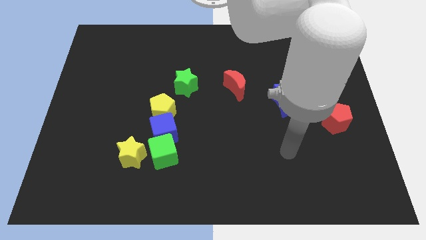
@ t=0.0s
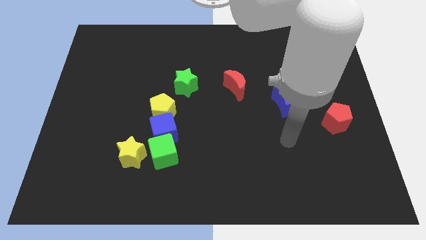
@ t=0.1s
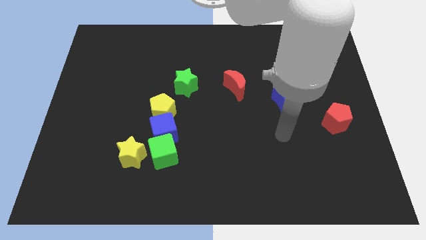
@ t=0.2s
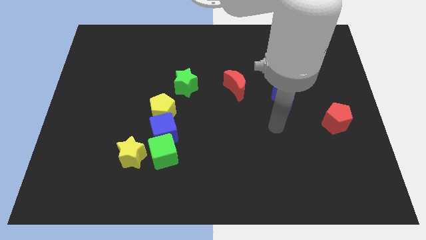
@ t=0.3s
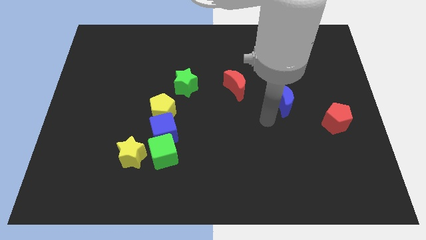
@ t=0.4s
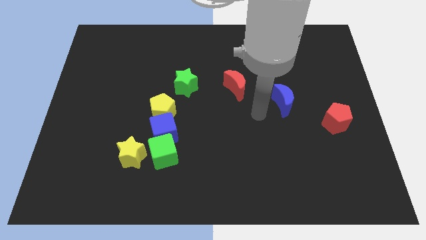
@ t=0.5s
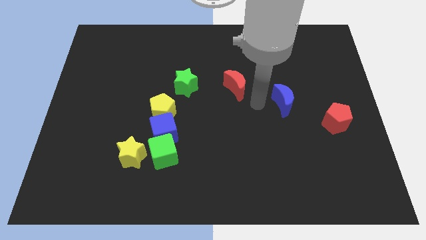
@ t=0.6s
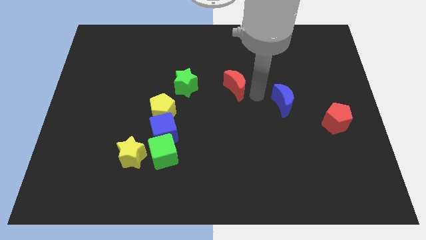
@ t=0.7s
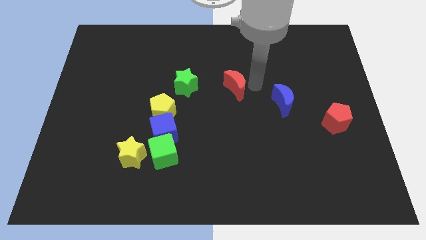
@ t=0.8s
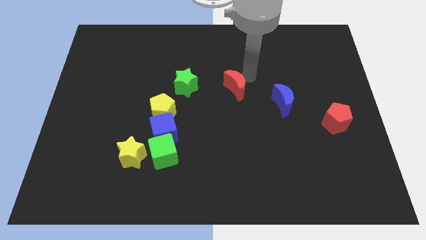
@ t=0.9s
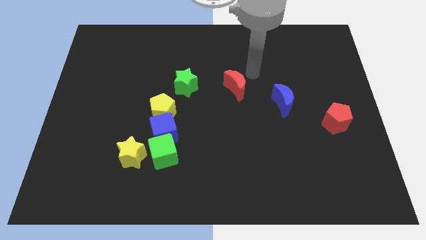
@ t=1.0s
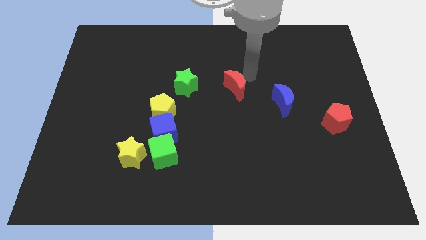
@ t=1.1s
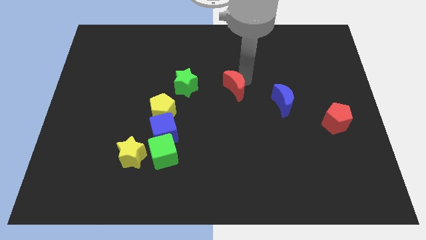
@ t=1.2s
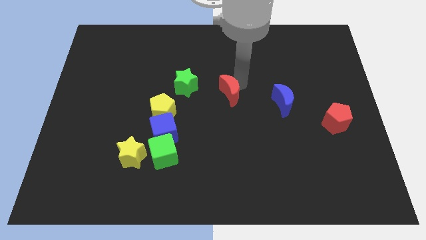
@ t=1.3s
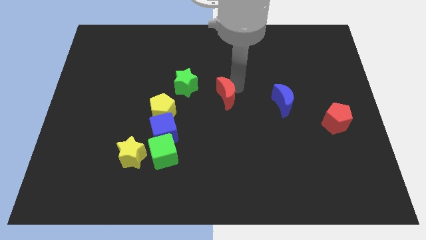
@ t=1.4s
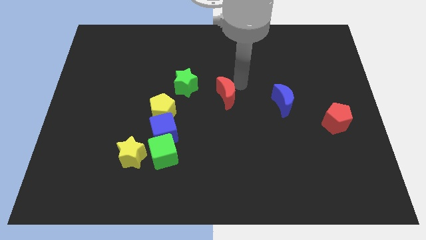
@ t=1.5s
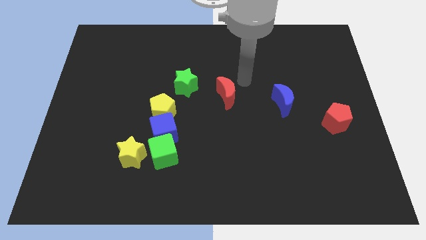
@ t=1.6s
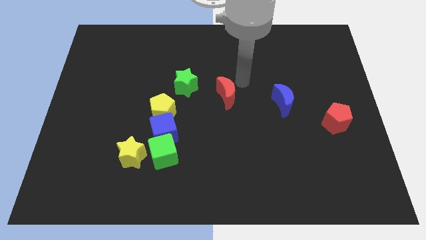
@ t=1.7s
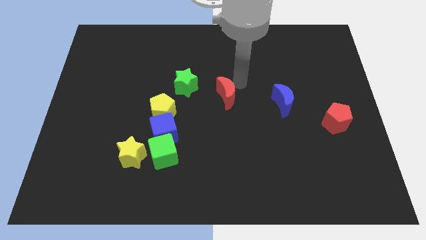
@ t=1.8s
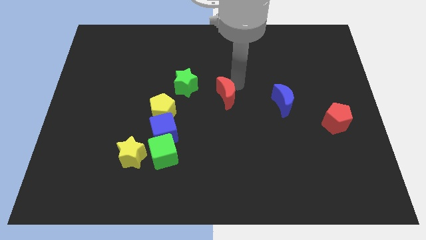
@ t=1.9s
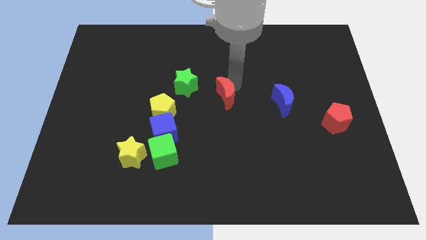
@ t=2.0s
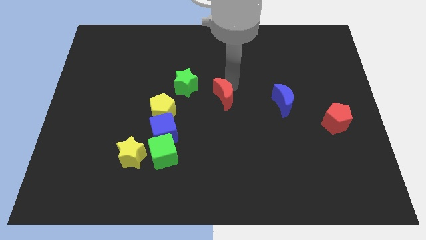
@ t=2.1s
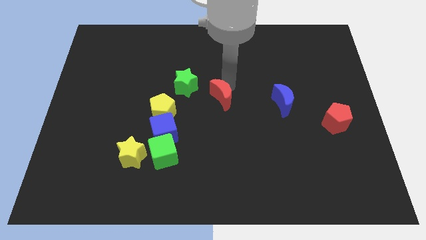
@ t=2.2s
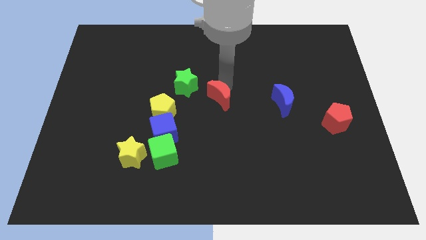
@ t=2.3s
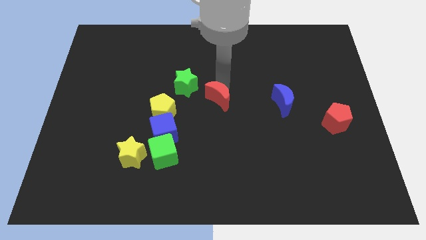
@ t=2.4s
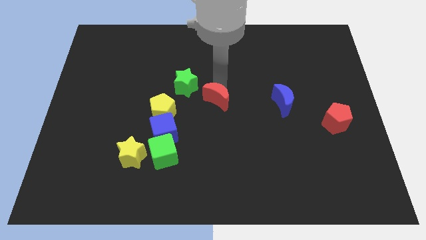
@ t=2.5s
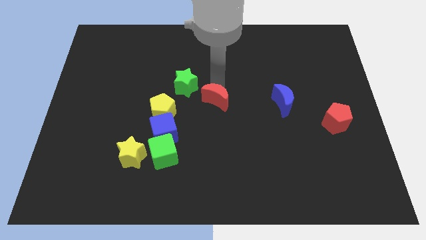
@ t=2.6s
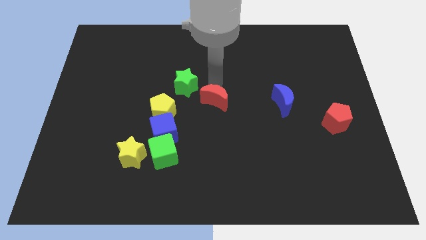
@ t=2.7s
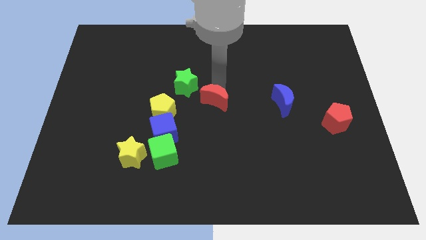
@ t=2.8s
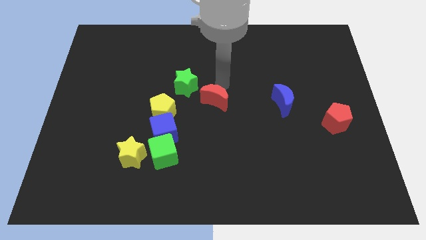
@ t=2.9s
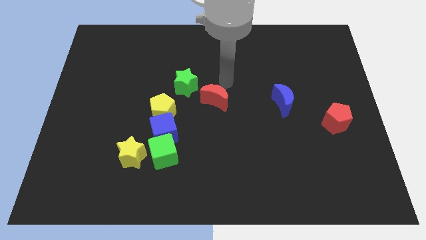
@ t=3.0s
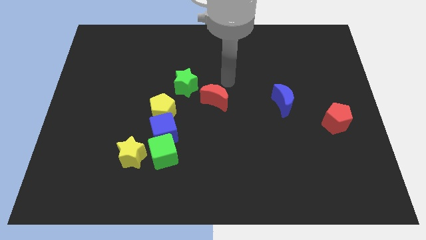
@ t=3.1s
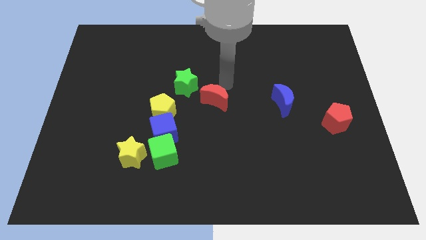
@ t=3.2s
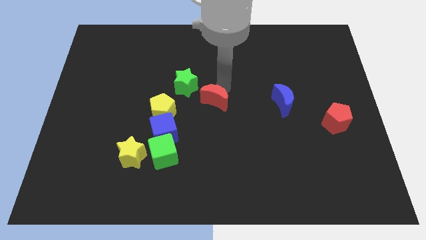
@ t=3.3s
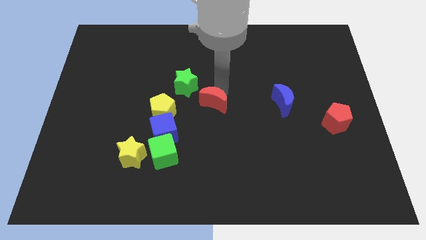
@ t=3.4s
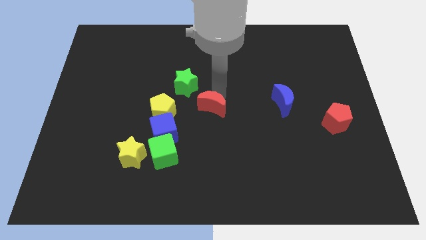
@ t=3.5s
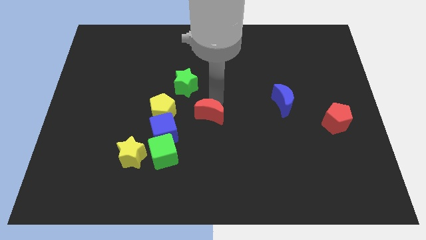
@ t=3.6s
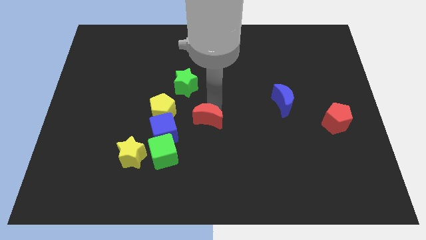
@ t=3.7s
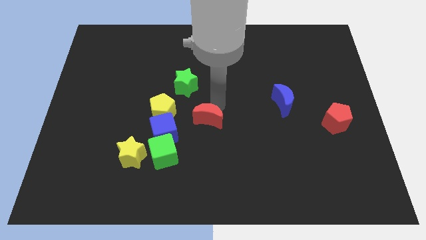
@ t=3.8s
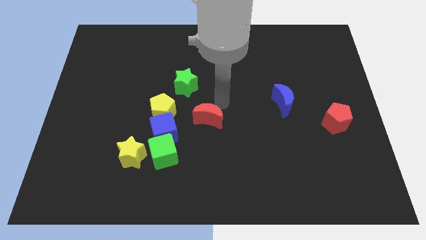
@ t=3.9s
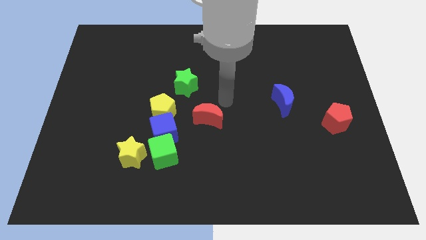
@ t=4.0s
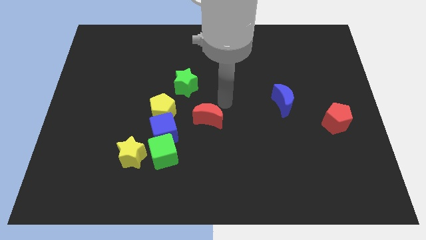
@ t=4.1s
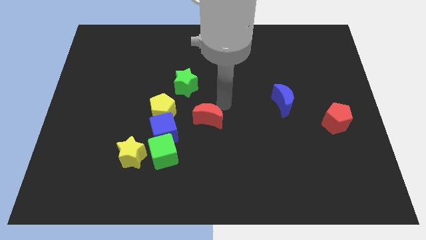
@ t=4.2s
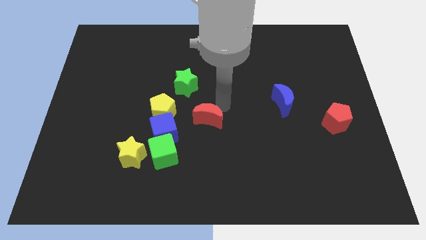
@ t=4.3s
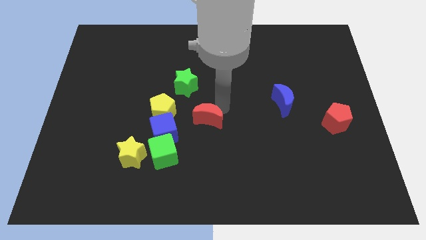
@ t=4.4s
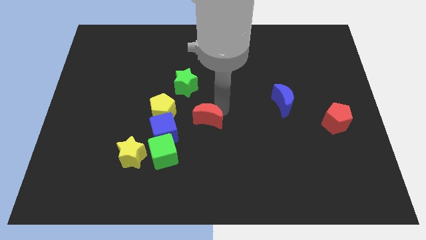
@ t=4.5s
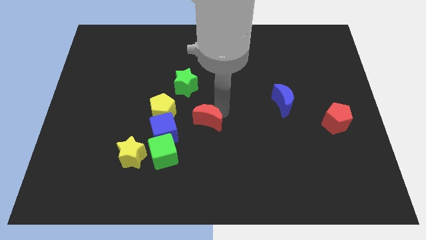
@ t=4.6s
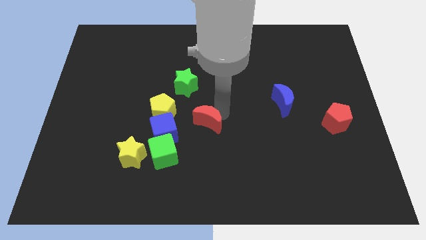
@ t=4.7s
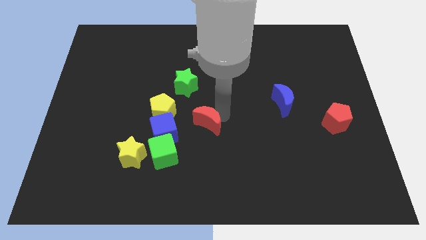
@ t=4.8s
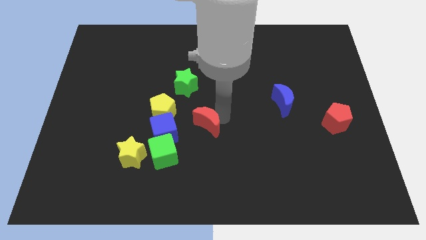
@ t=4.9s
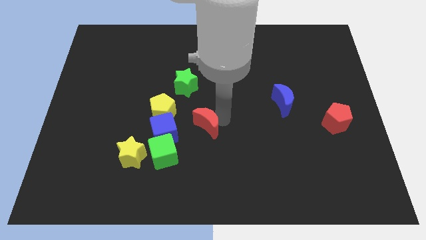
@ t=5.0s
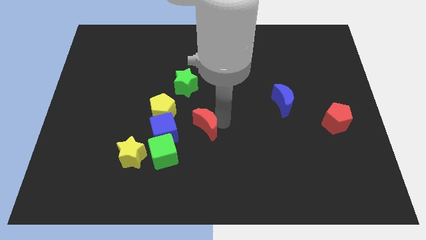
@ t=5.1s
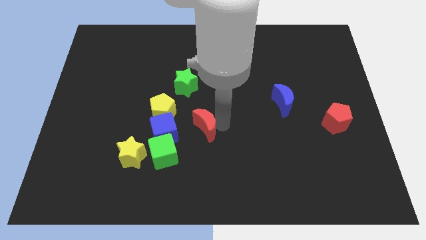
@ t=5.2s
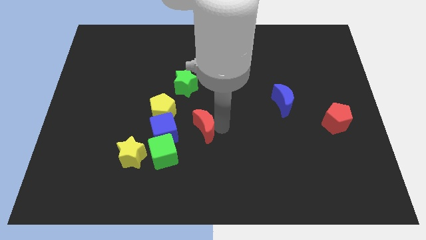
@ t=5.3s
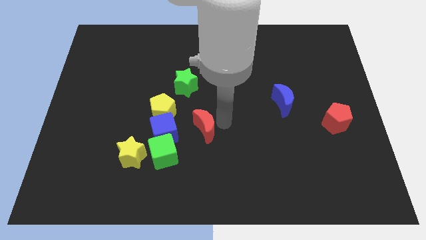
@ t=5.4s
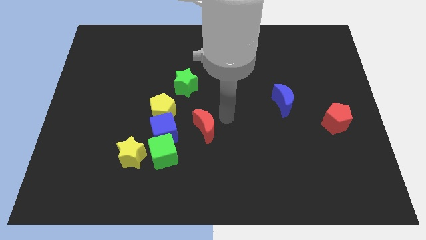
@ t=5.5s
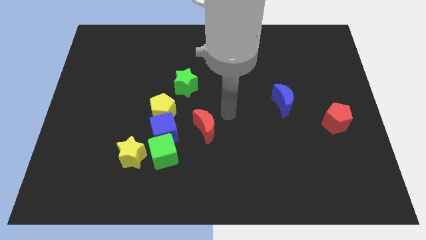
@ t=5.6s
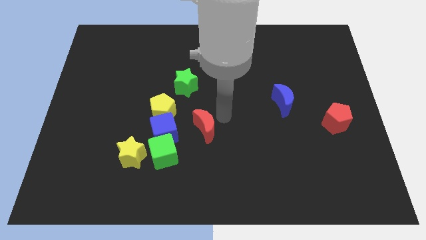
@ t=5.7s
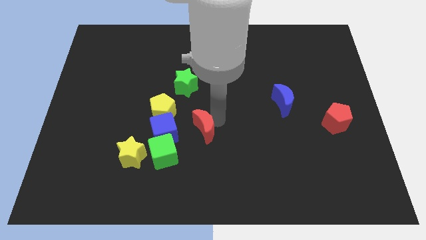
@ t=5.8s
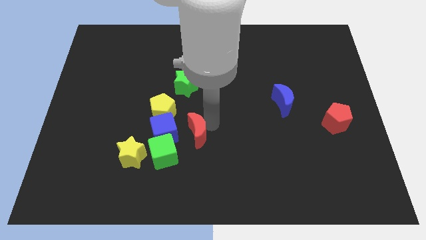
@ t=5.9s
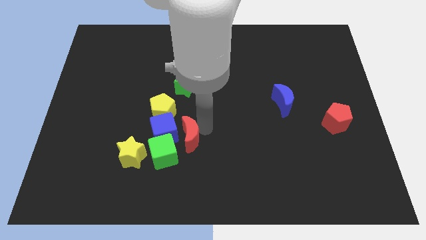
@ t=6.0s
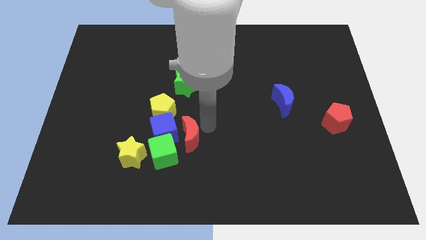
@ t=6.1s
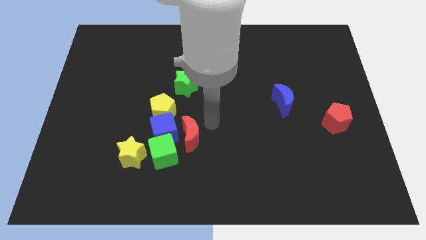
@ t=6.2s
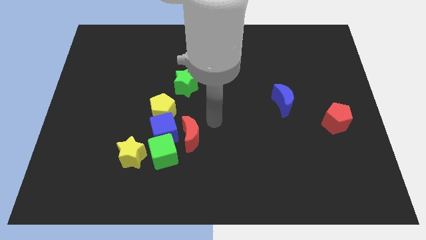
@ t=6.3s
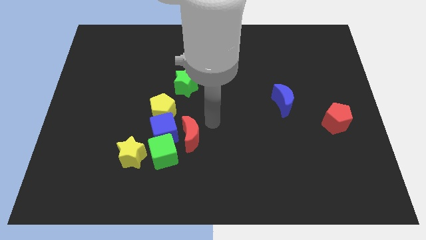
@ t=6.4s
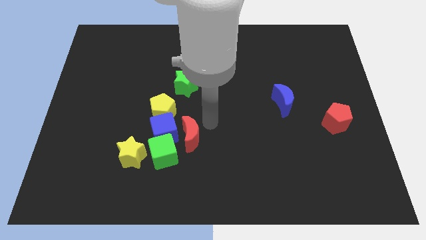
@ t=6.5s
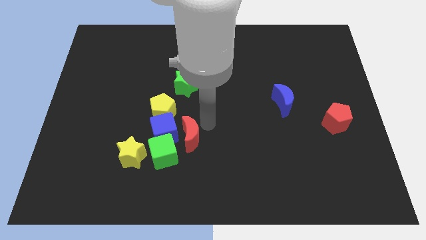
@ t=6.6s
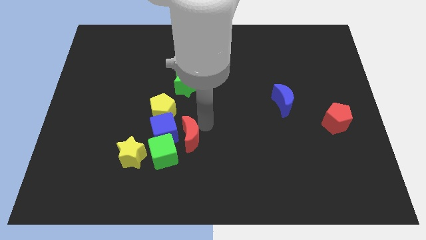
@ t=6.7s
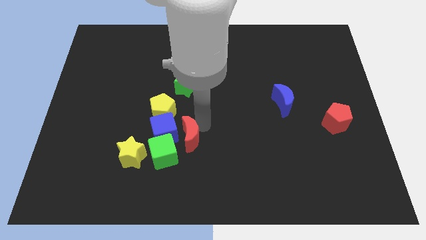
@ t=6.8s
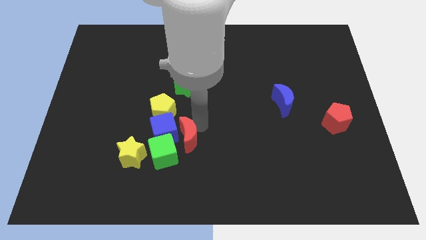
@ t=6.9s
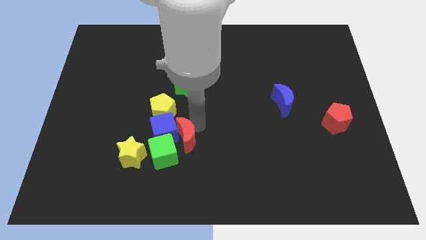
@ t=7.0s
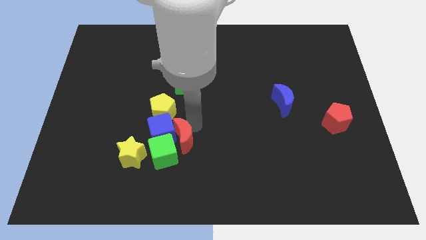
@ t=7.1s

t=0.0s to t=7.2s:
slide the red moon towards the green cube
